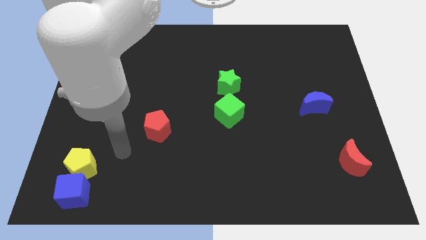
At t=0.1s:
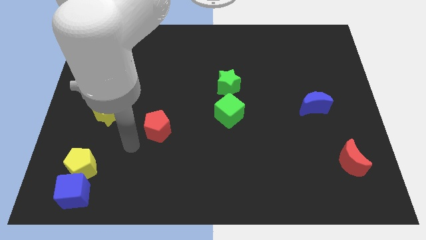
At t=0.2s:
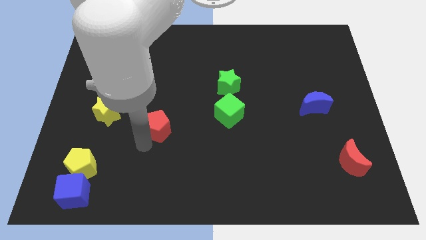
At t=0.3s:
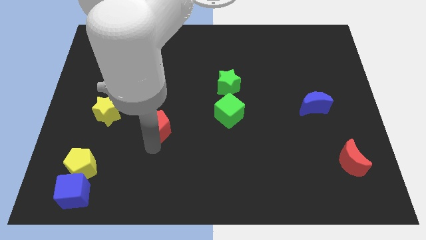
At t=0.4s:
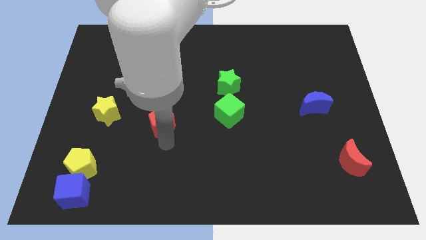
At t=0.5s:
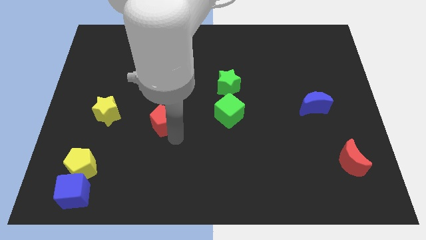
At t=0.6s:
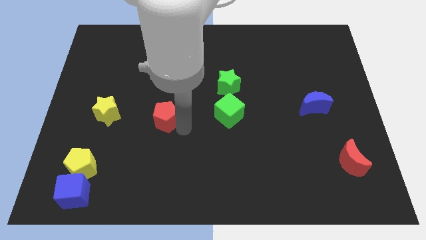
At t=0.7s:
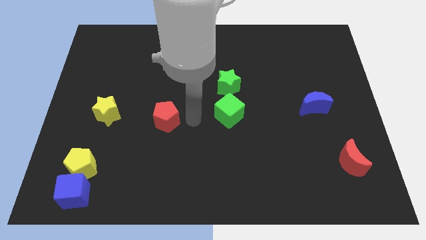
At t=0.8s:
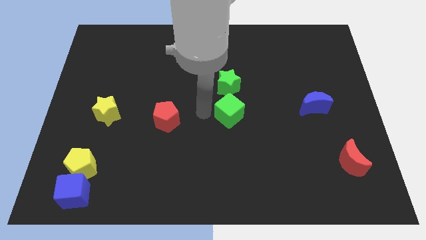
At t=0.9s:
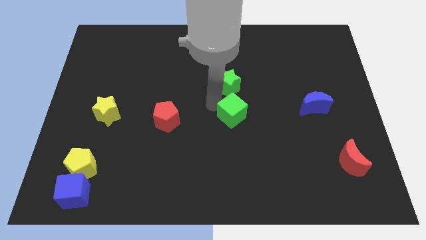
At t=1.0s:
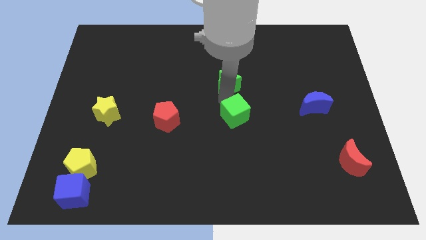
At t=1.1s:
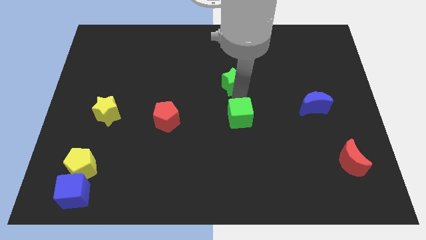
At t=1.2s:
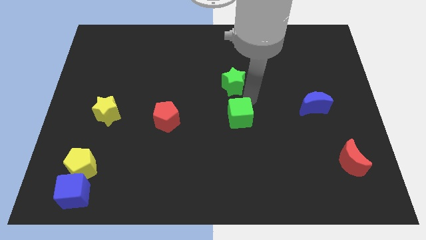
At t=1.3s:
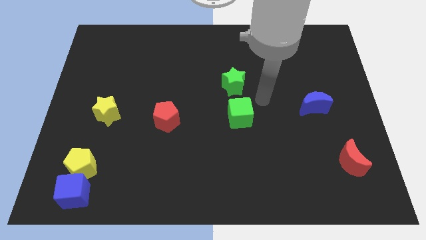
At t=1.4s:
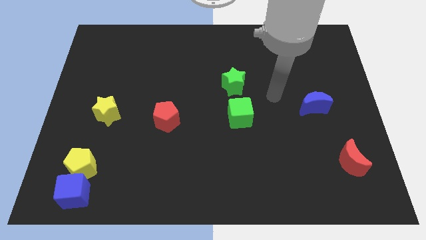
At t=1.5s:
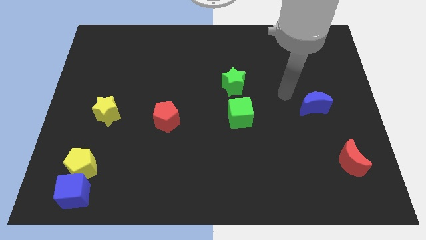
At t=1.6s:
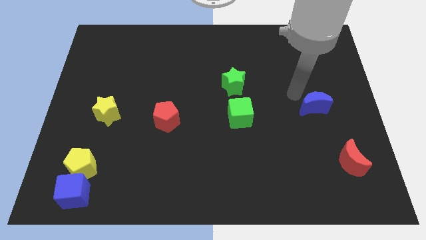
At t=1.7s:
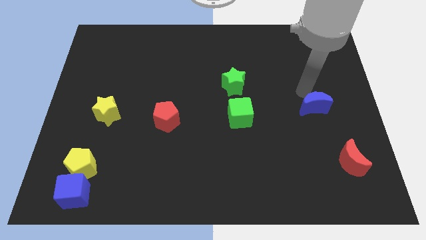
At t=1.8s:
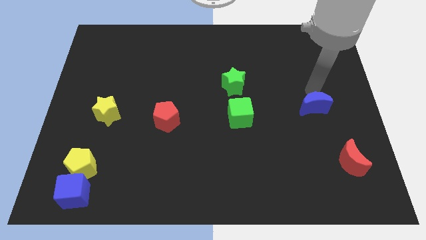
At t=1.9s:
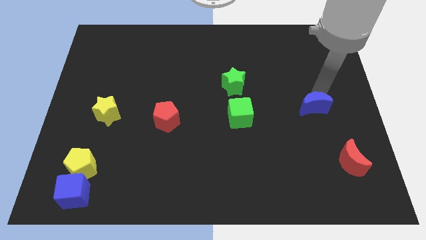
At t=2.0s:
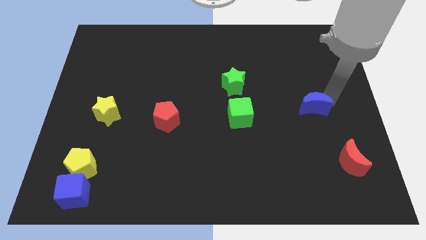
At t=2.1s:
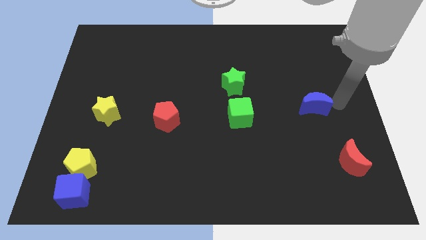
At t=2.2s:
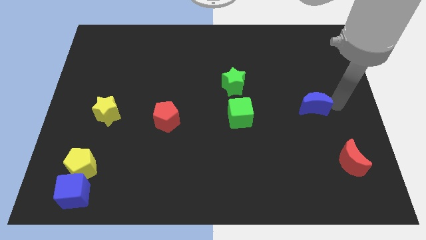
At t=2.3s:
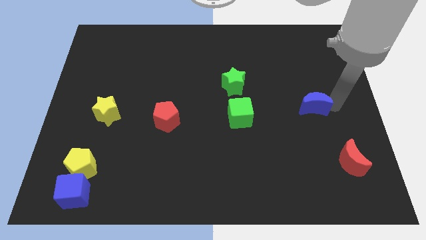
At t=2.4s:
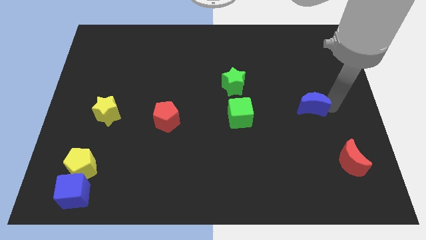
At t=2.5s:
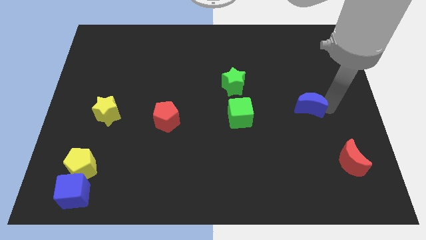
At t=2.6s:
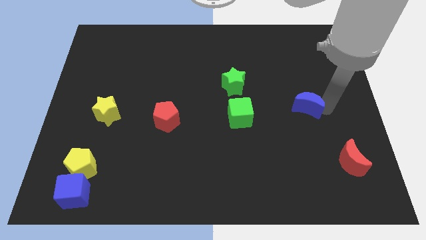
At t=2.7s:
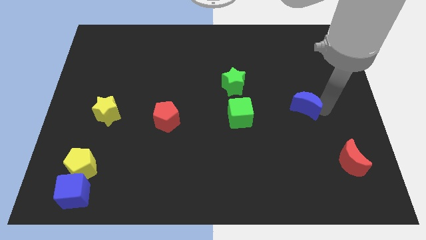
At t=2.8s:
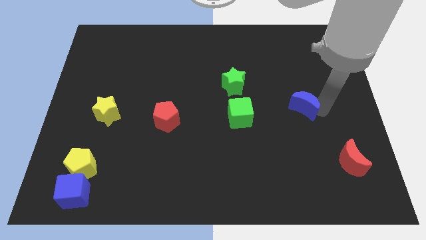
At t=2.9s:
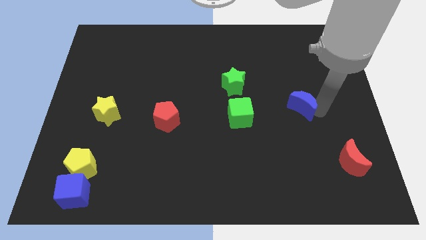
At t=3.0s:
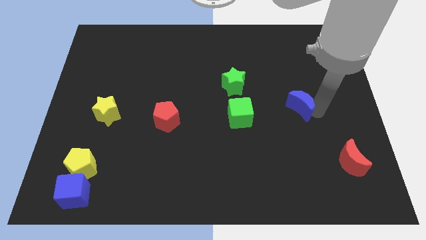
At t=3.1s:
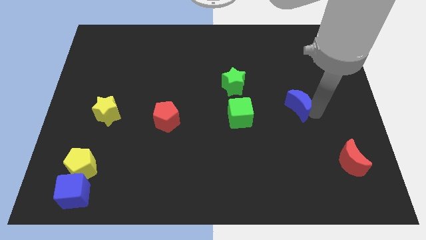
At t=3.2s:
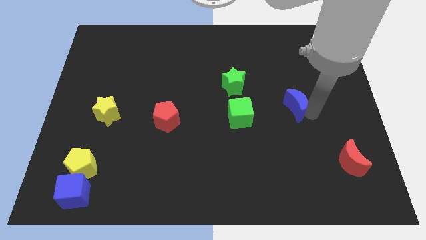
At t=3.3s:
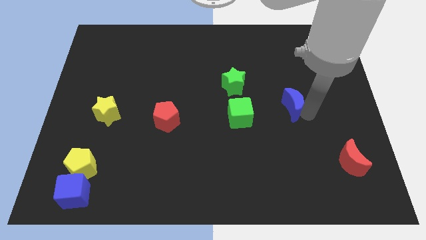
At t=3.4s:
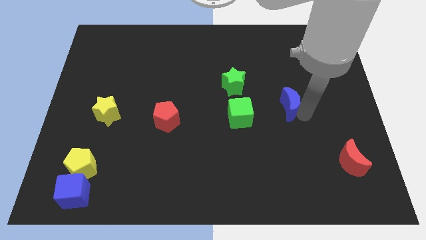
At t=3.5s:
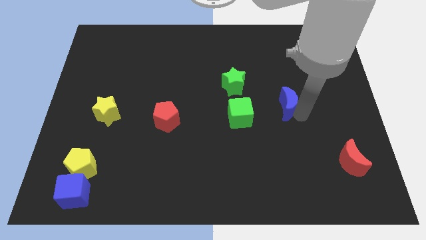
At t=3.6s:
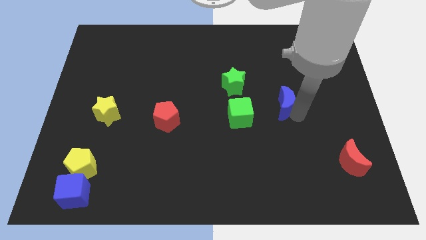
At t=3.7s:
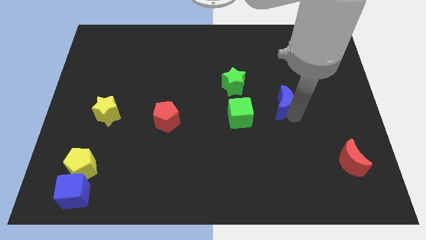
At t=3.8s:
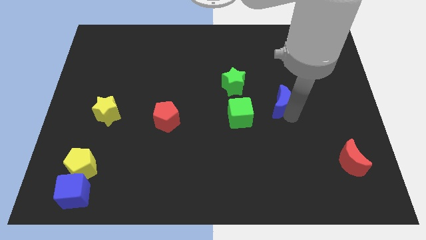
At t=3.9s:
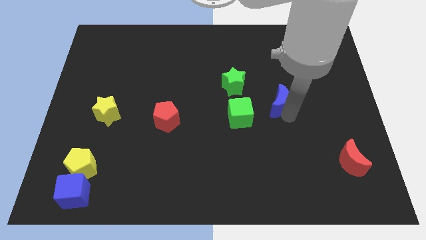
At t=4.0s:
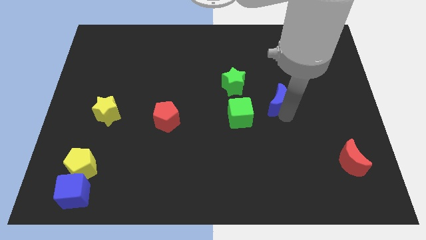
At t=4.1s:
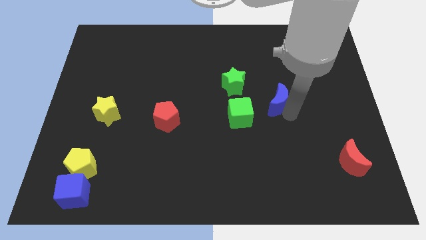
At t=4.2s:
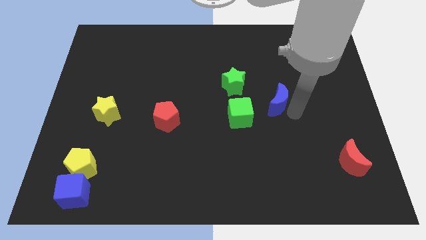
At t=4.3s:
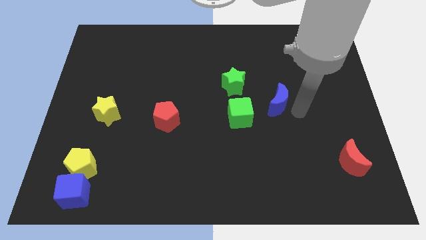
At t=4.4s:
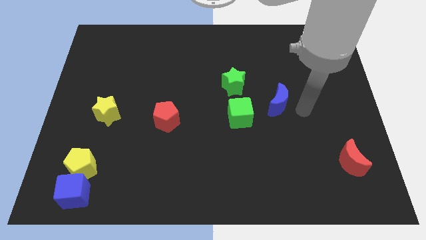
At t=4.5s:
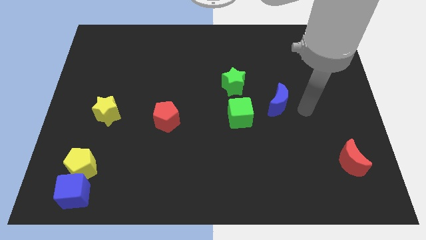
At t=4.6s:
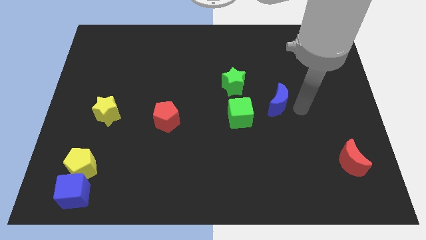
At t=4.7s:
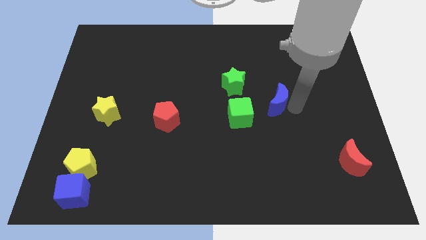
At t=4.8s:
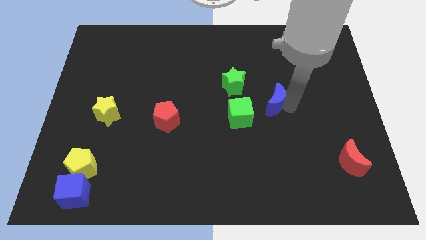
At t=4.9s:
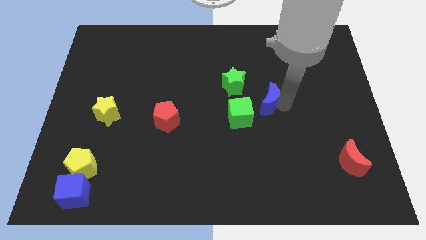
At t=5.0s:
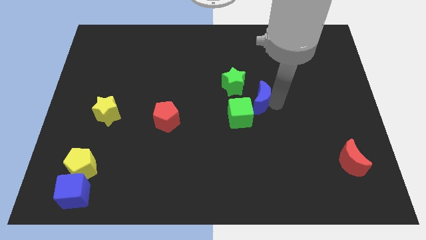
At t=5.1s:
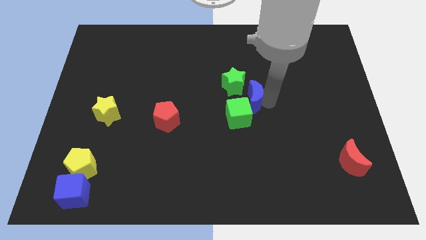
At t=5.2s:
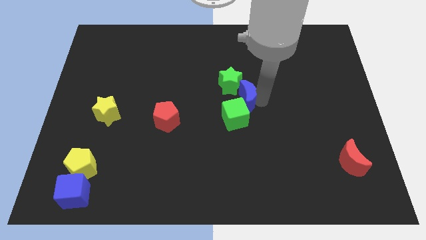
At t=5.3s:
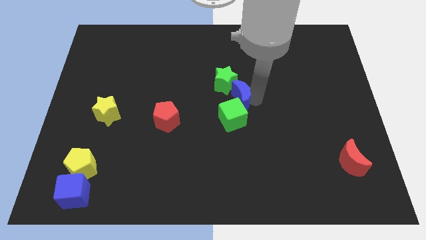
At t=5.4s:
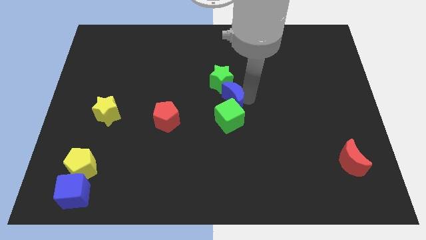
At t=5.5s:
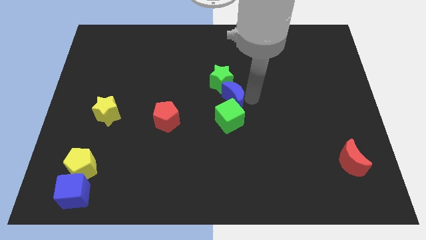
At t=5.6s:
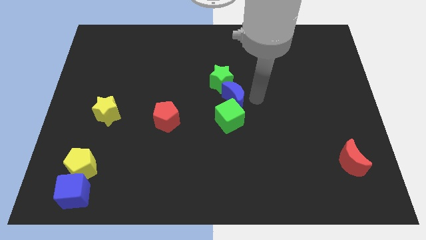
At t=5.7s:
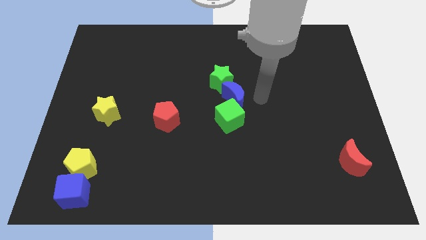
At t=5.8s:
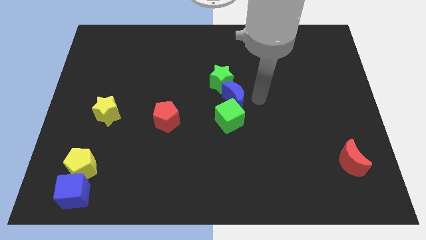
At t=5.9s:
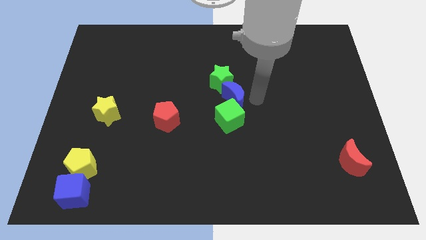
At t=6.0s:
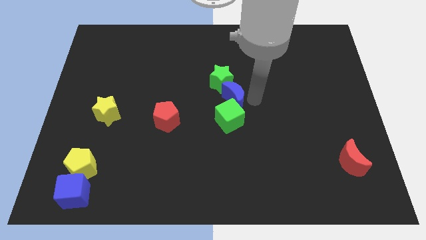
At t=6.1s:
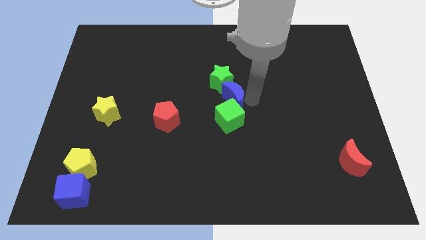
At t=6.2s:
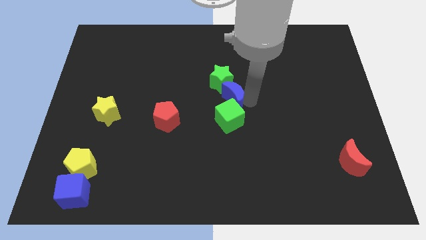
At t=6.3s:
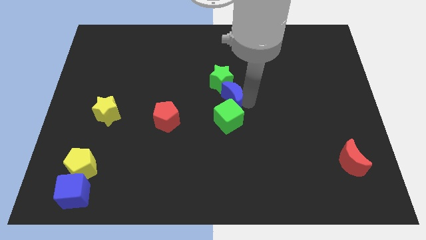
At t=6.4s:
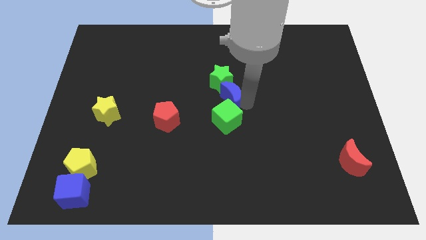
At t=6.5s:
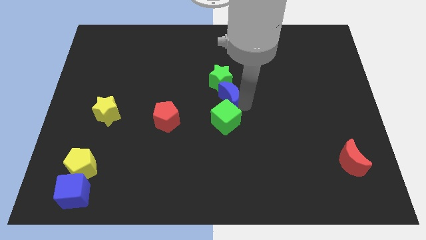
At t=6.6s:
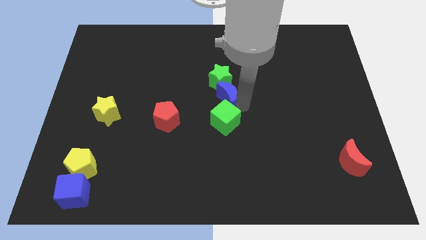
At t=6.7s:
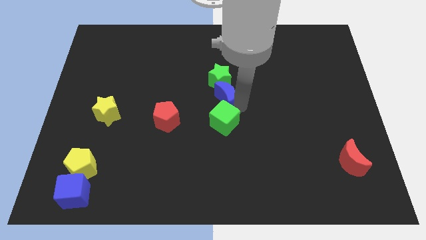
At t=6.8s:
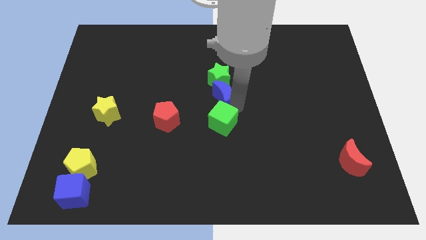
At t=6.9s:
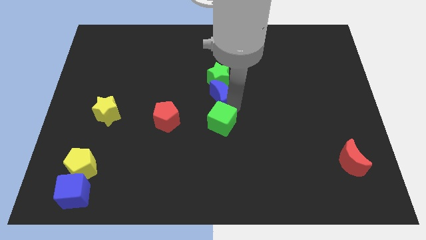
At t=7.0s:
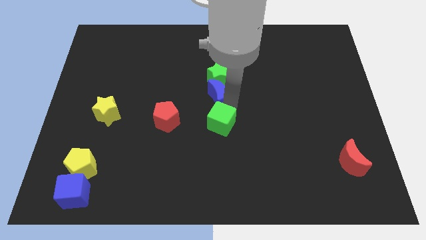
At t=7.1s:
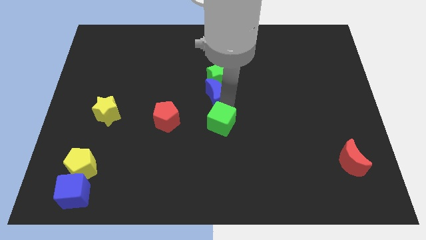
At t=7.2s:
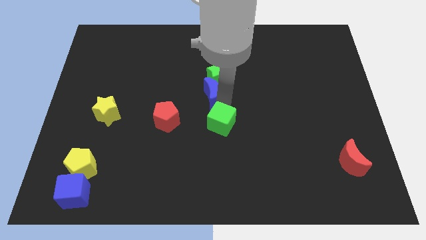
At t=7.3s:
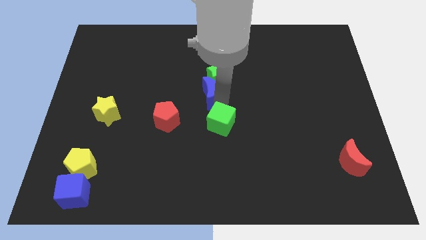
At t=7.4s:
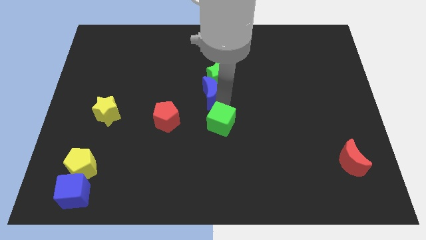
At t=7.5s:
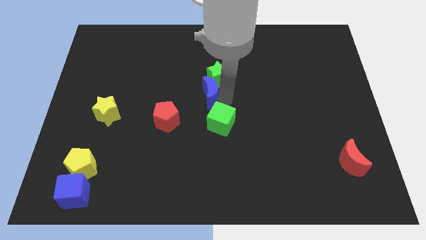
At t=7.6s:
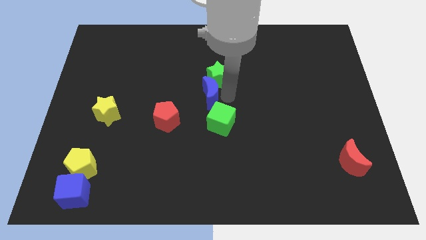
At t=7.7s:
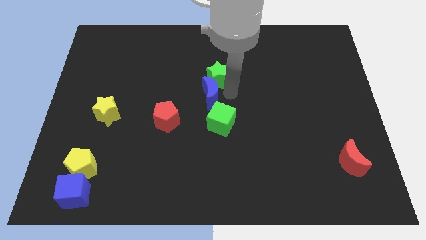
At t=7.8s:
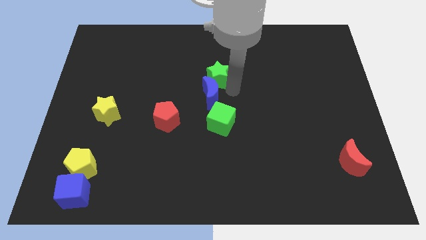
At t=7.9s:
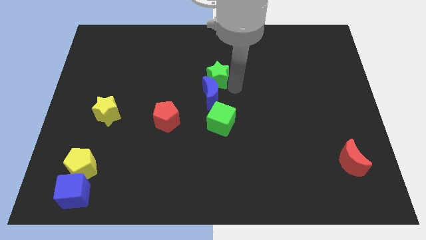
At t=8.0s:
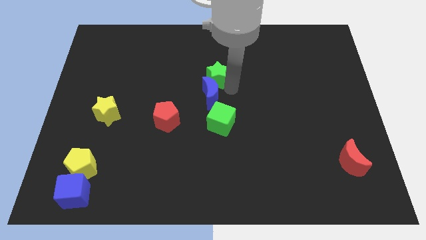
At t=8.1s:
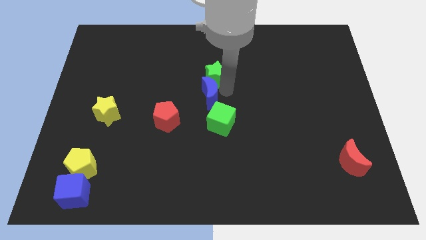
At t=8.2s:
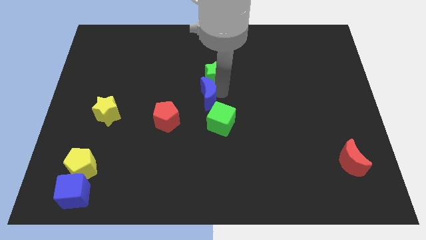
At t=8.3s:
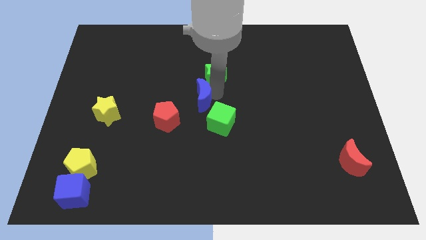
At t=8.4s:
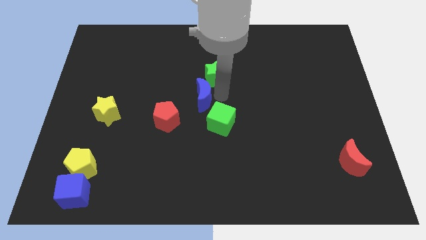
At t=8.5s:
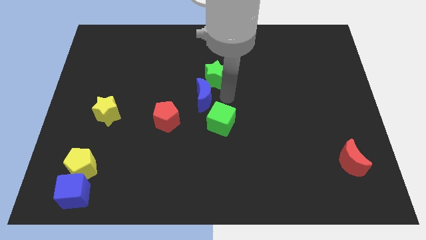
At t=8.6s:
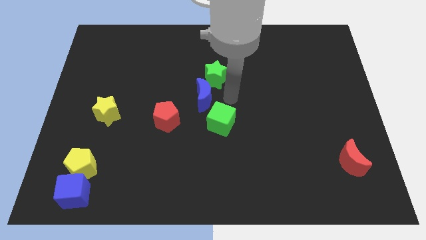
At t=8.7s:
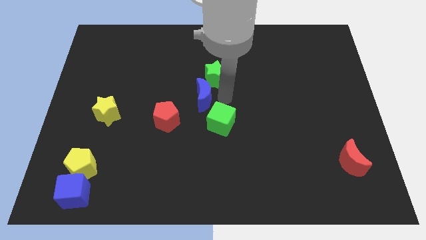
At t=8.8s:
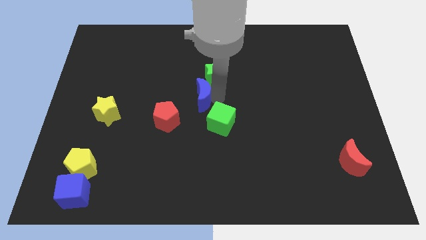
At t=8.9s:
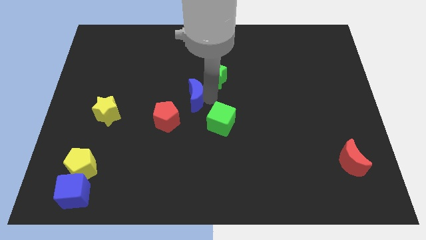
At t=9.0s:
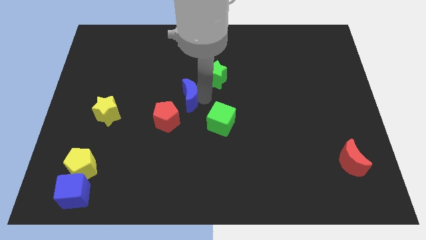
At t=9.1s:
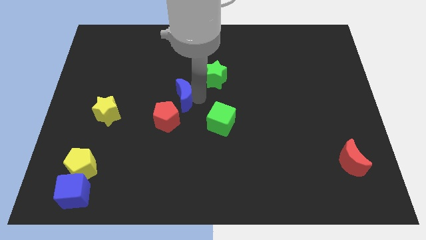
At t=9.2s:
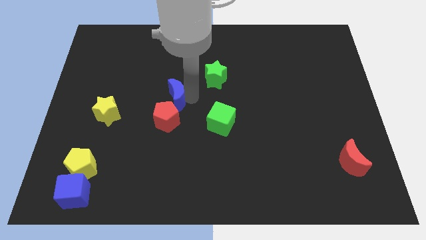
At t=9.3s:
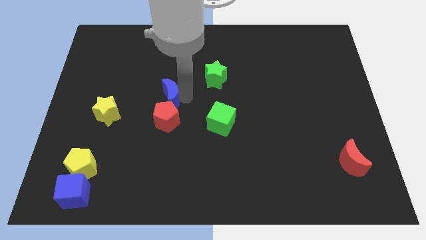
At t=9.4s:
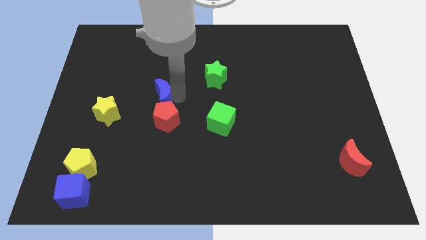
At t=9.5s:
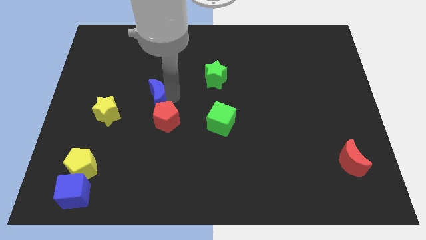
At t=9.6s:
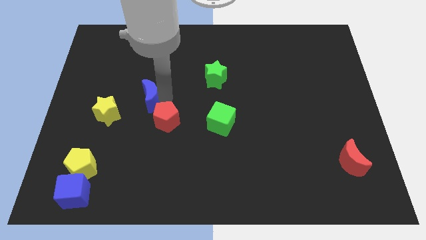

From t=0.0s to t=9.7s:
put the blue moon diagonally up and to the right of the yellow star
